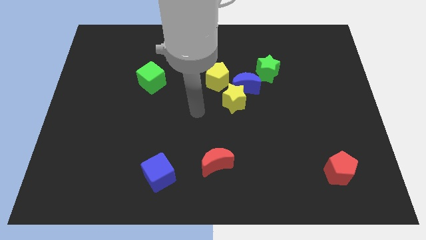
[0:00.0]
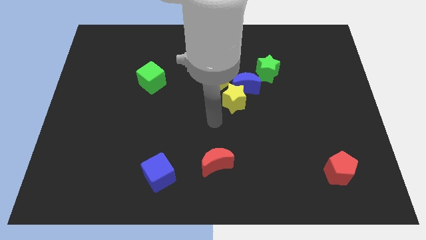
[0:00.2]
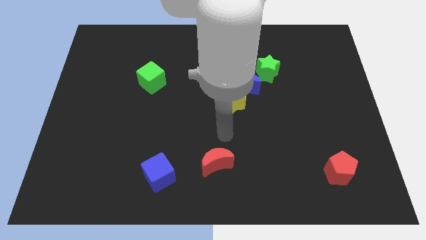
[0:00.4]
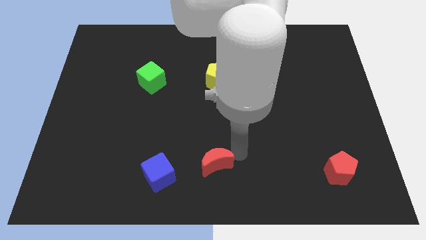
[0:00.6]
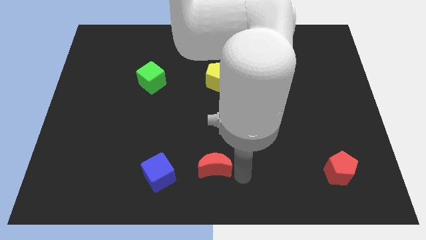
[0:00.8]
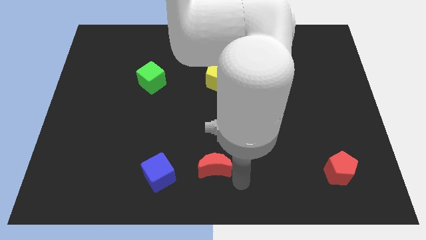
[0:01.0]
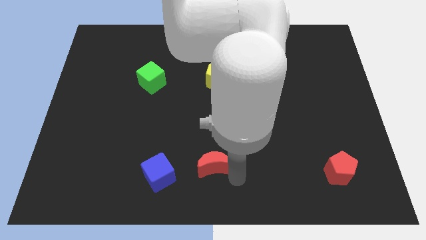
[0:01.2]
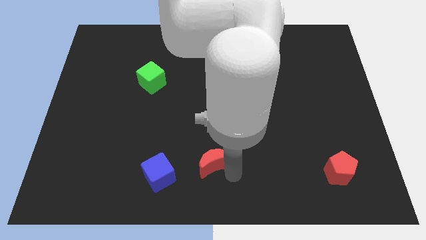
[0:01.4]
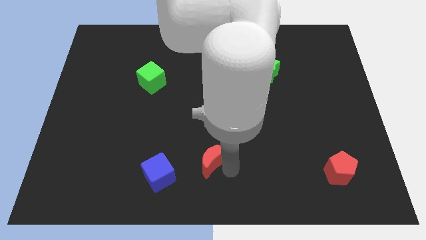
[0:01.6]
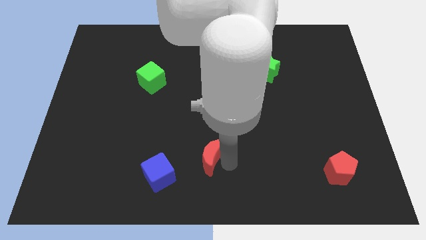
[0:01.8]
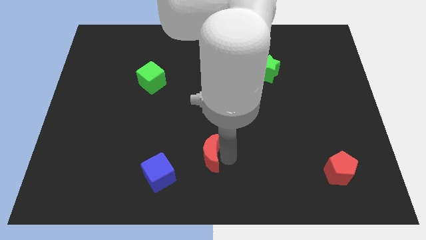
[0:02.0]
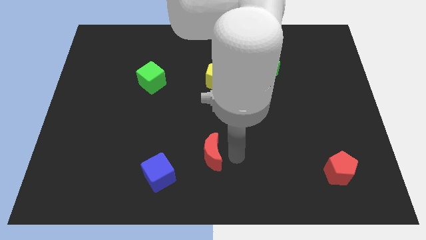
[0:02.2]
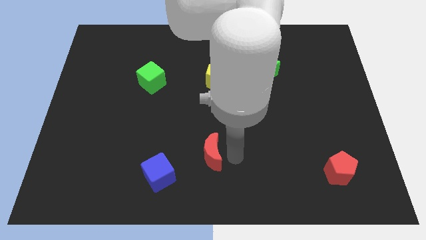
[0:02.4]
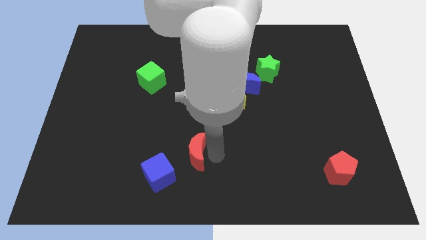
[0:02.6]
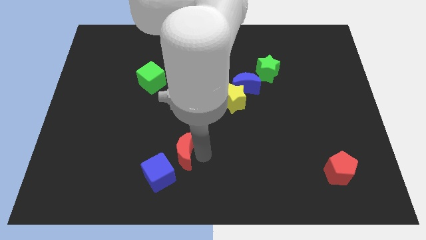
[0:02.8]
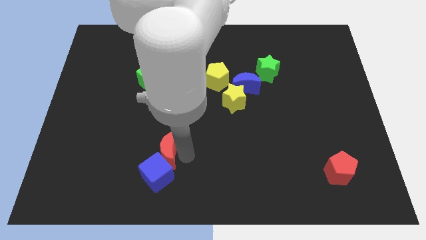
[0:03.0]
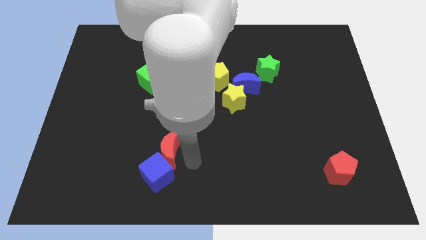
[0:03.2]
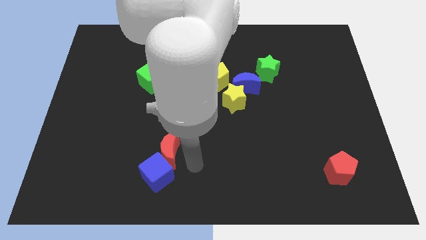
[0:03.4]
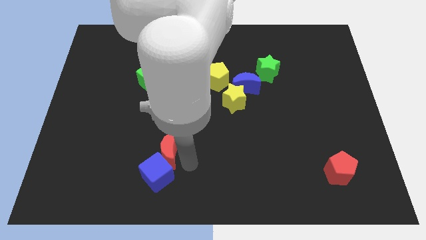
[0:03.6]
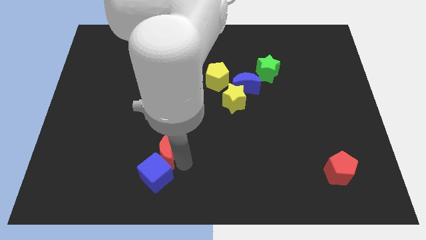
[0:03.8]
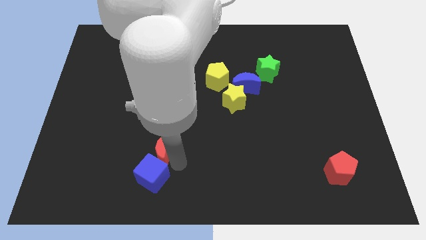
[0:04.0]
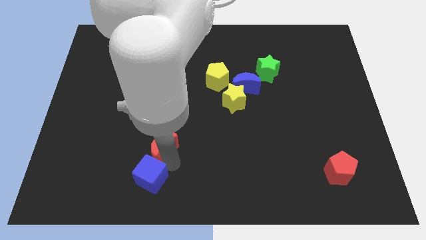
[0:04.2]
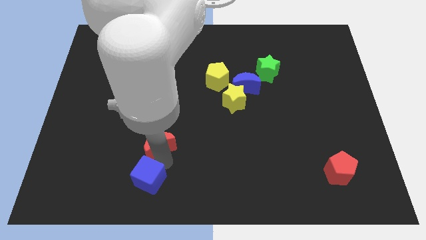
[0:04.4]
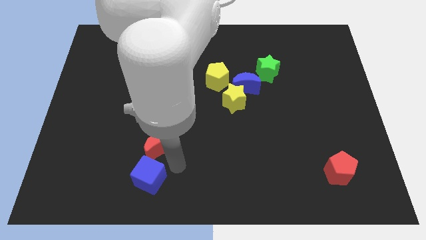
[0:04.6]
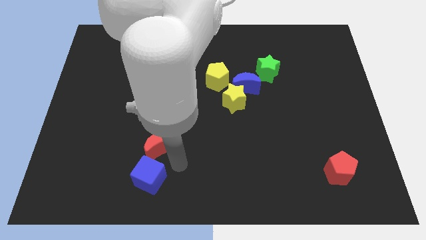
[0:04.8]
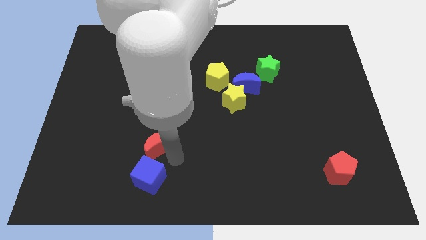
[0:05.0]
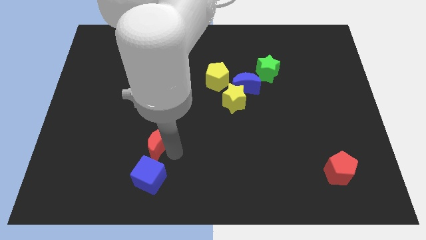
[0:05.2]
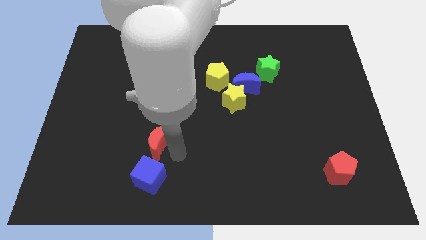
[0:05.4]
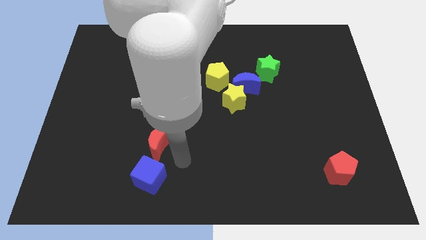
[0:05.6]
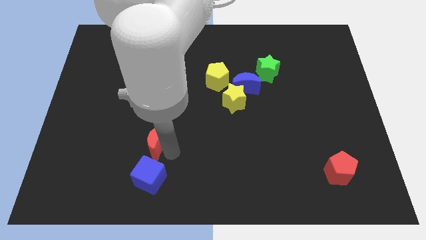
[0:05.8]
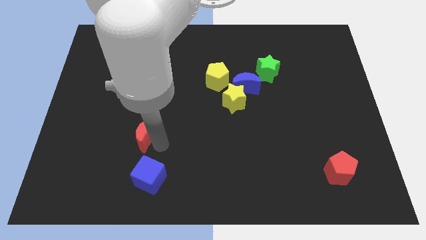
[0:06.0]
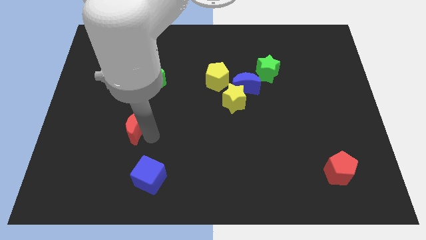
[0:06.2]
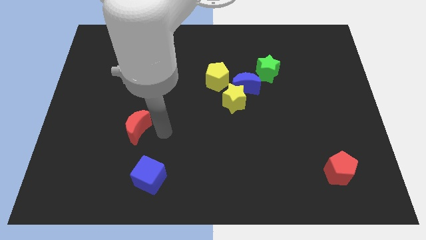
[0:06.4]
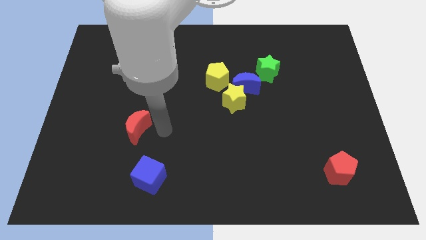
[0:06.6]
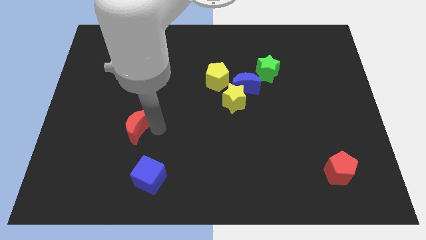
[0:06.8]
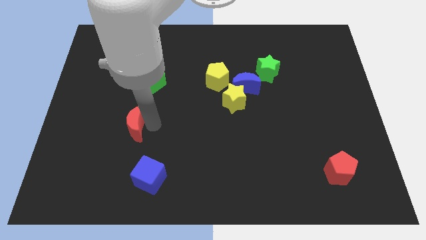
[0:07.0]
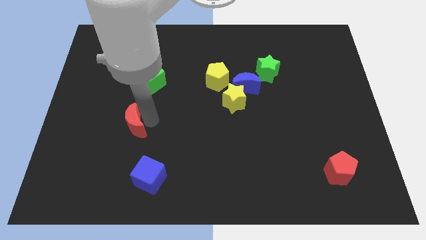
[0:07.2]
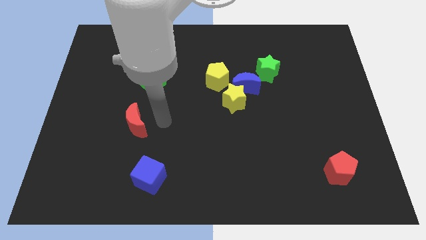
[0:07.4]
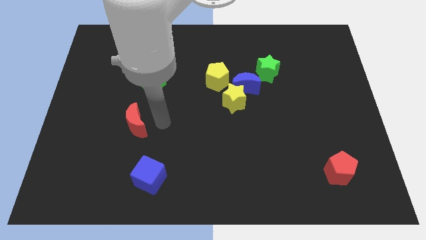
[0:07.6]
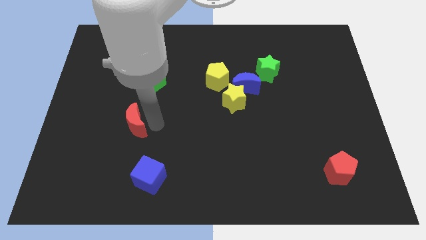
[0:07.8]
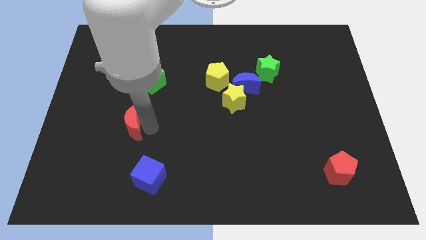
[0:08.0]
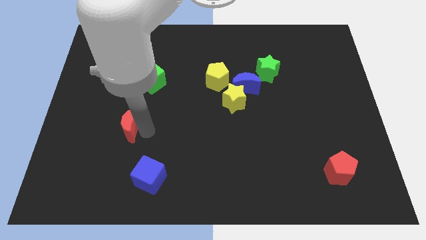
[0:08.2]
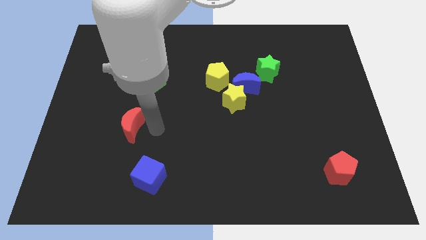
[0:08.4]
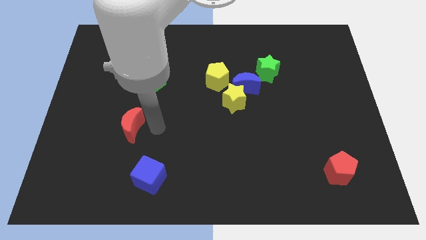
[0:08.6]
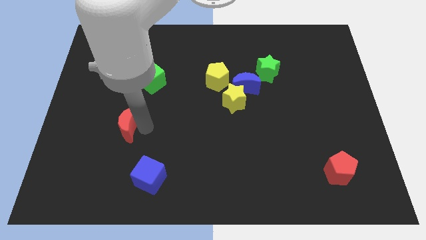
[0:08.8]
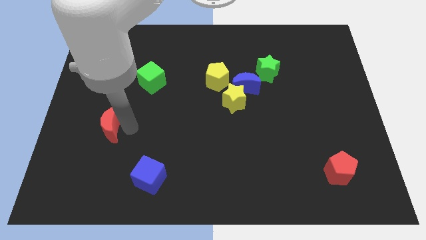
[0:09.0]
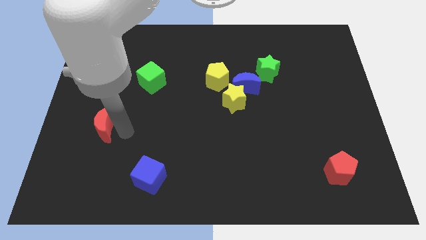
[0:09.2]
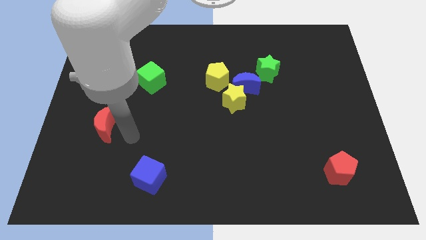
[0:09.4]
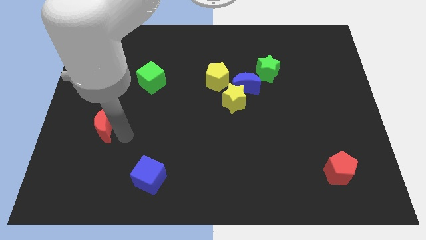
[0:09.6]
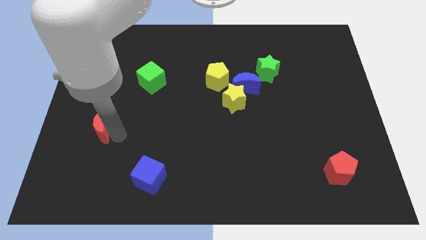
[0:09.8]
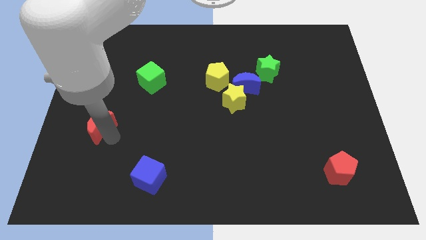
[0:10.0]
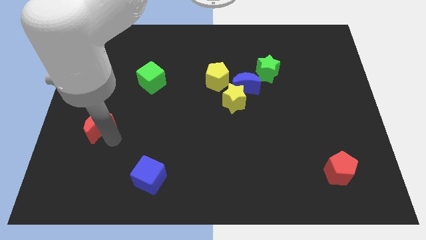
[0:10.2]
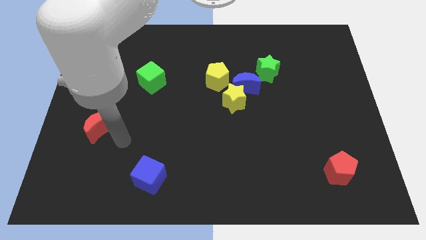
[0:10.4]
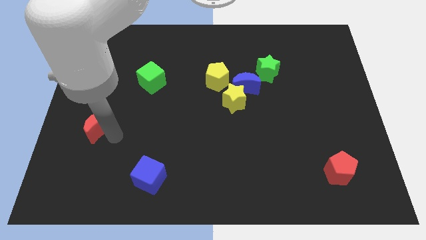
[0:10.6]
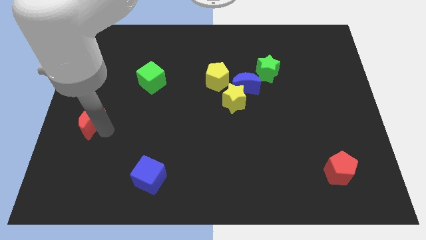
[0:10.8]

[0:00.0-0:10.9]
slide the red moon to the center left
